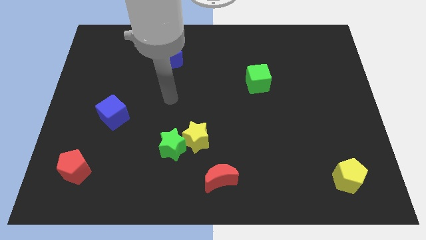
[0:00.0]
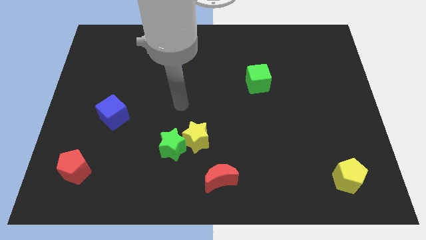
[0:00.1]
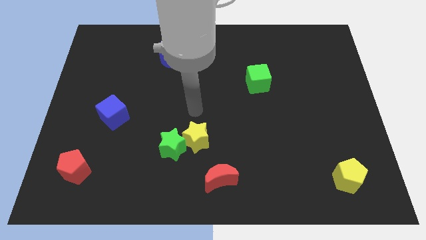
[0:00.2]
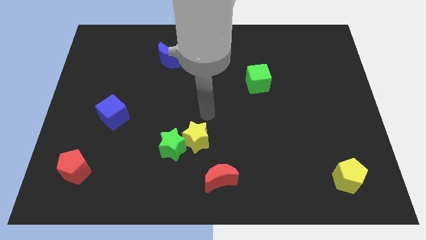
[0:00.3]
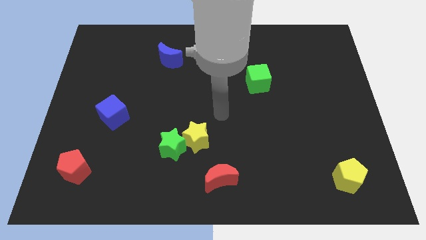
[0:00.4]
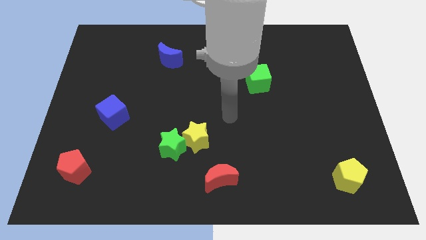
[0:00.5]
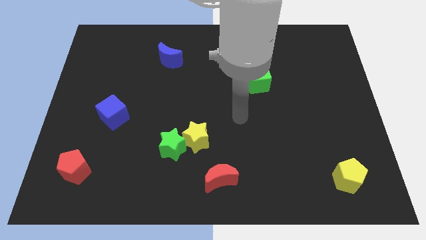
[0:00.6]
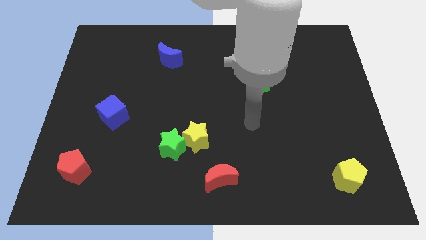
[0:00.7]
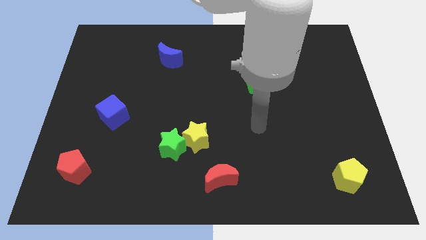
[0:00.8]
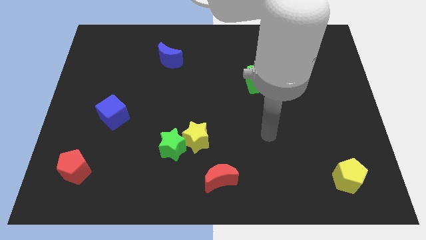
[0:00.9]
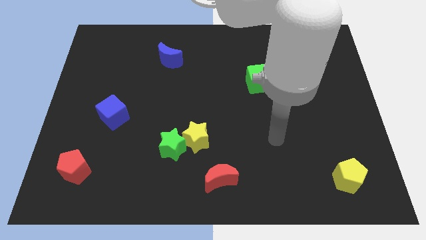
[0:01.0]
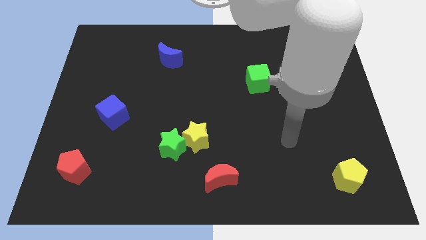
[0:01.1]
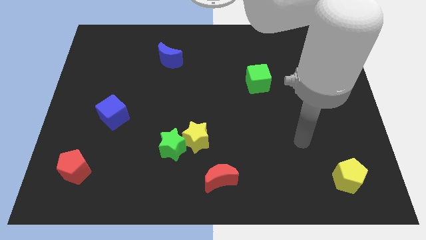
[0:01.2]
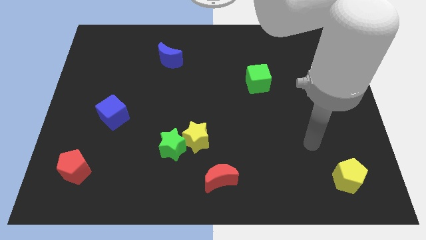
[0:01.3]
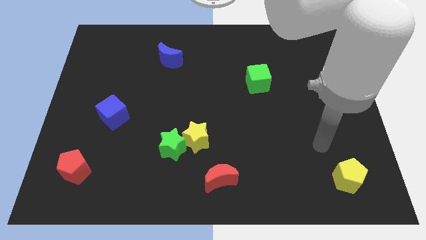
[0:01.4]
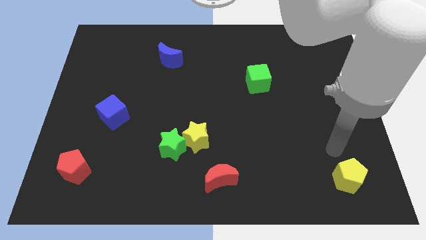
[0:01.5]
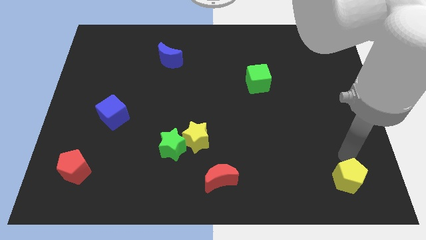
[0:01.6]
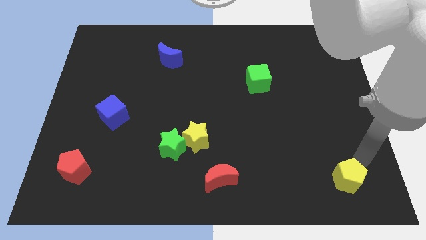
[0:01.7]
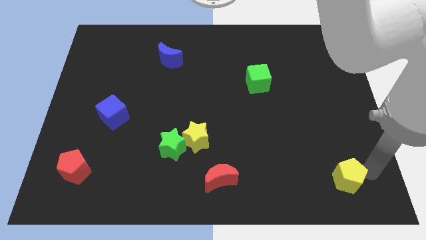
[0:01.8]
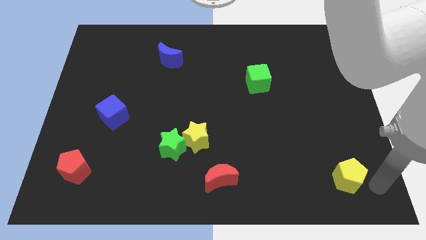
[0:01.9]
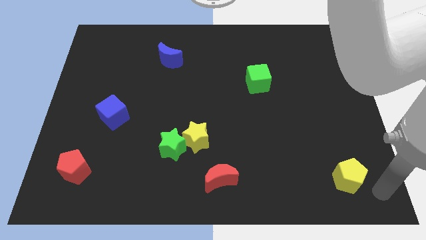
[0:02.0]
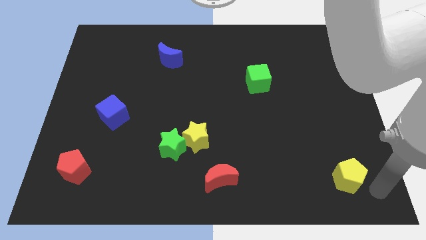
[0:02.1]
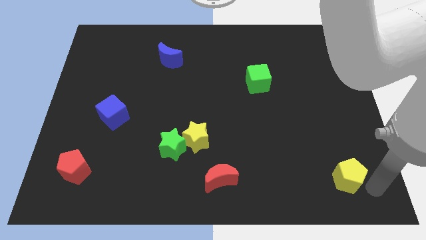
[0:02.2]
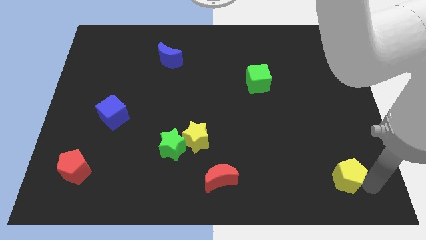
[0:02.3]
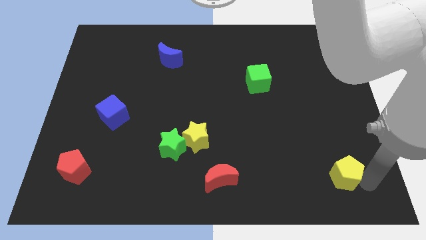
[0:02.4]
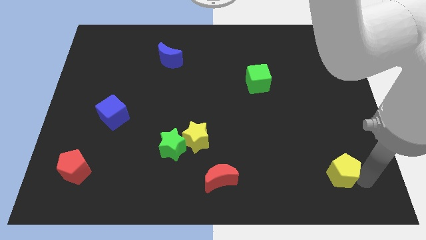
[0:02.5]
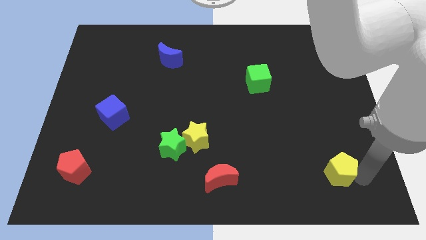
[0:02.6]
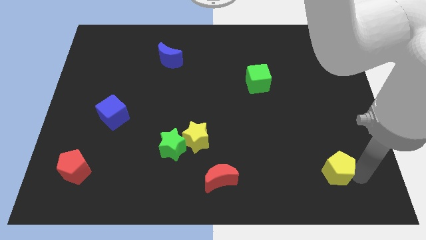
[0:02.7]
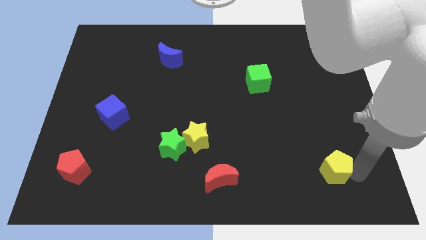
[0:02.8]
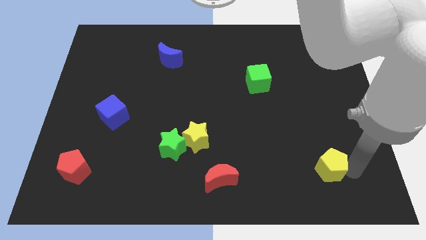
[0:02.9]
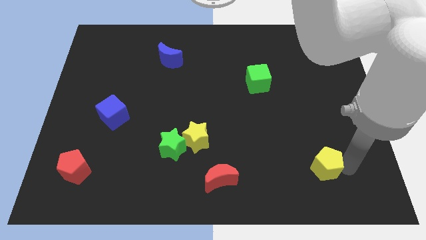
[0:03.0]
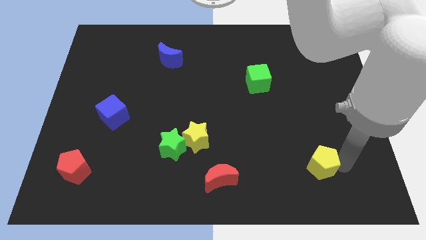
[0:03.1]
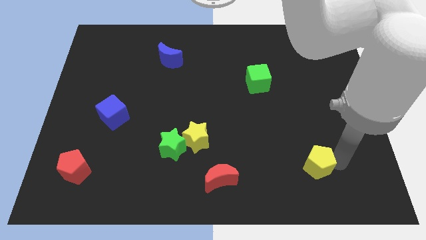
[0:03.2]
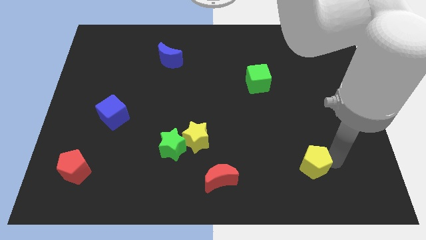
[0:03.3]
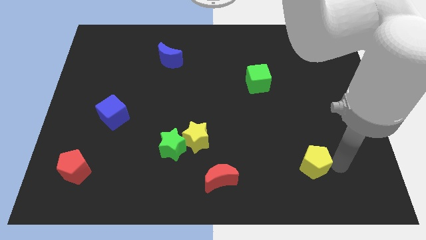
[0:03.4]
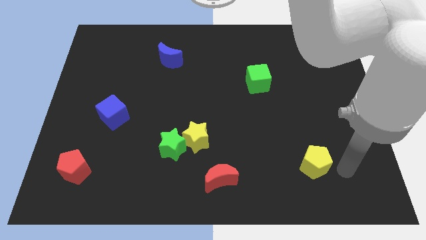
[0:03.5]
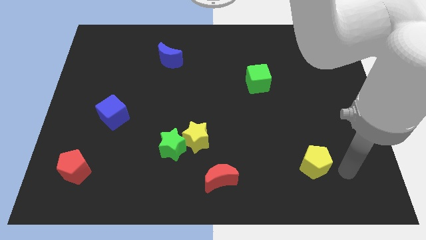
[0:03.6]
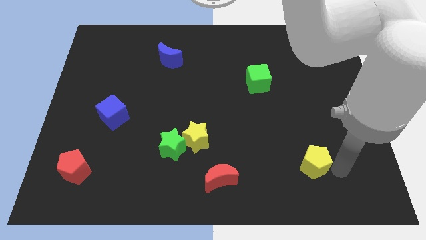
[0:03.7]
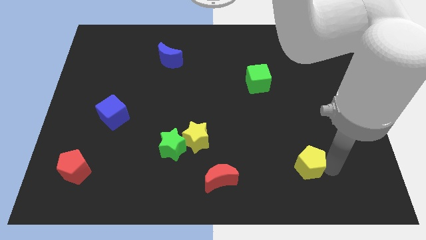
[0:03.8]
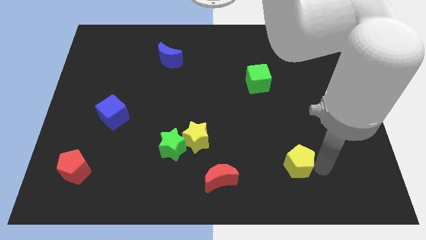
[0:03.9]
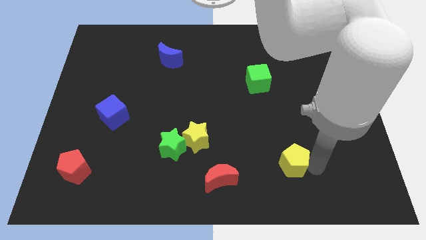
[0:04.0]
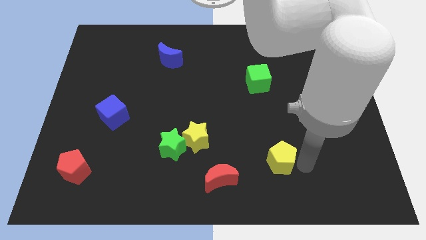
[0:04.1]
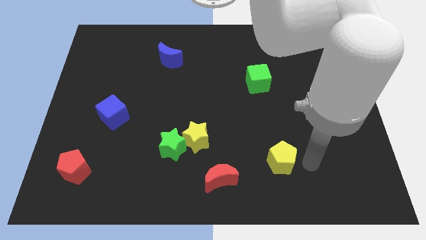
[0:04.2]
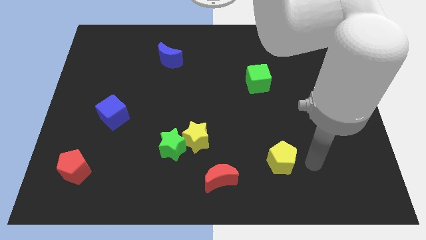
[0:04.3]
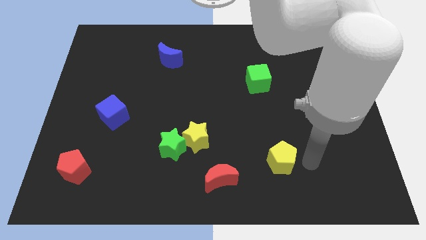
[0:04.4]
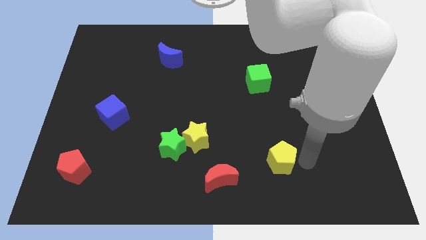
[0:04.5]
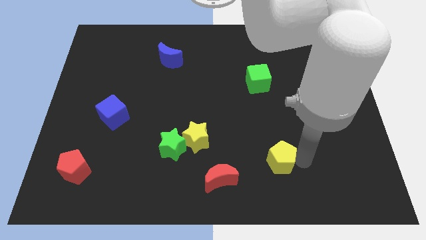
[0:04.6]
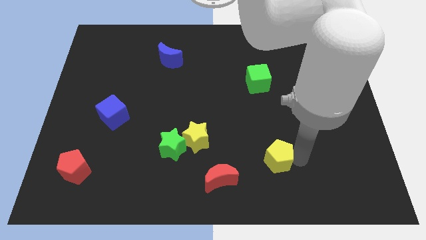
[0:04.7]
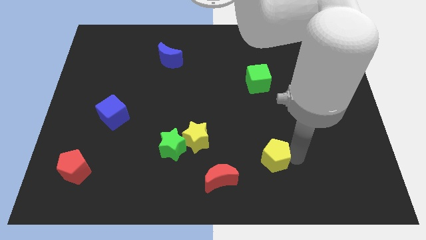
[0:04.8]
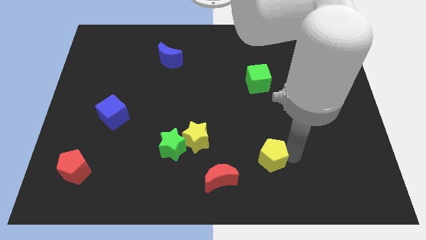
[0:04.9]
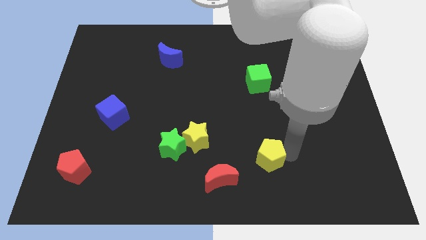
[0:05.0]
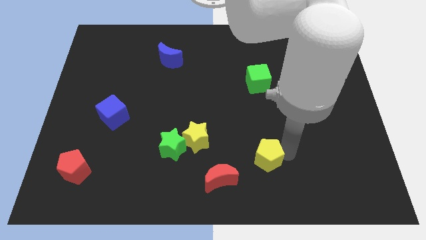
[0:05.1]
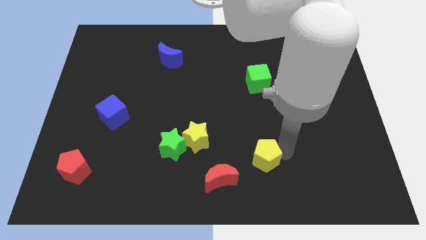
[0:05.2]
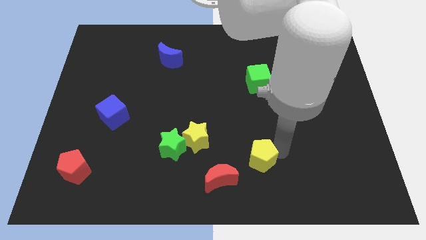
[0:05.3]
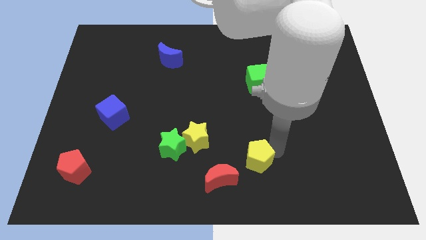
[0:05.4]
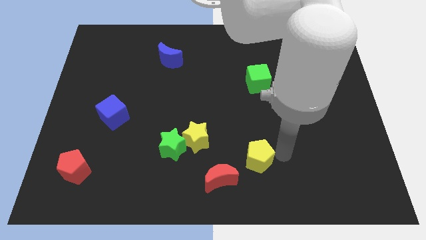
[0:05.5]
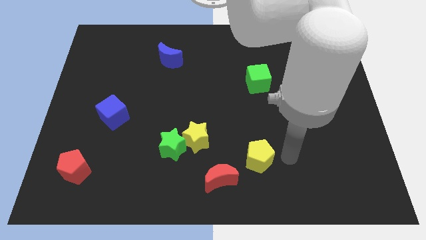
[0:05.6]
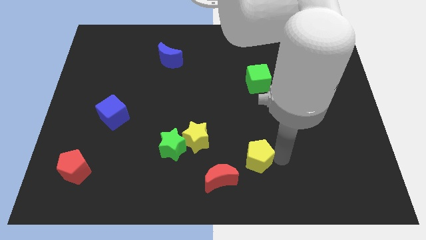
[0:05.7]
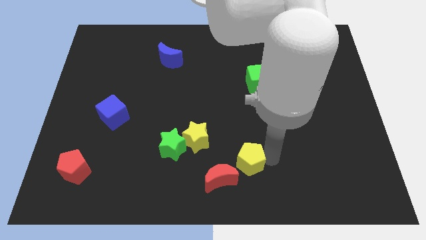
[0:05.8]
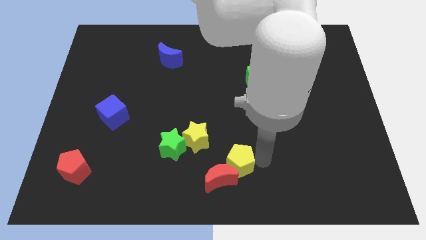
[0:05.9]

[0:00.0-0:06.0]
move the yellow pentagon diagonally down and to the right of the yellow star

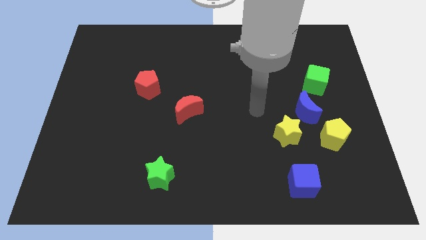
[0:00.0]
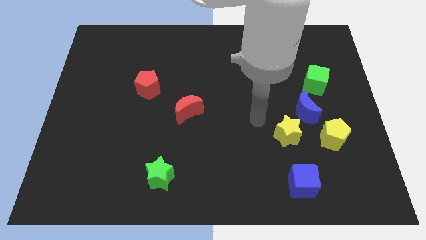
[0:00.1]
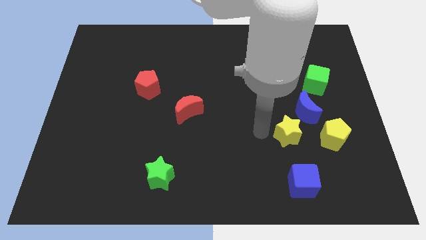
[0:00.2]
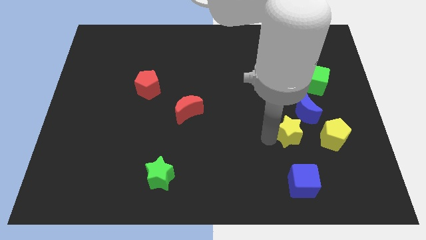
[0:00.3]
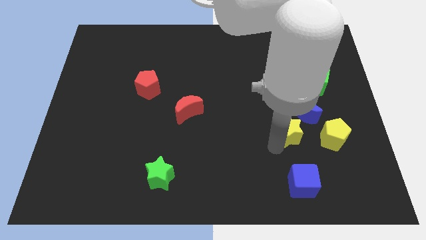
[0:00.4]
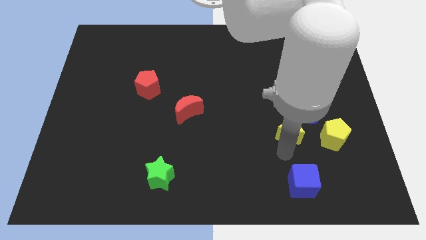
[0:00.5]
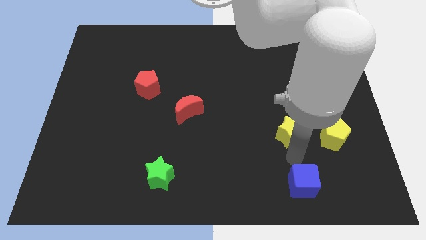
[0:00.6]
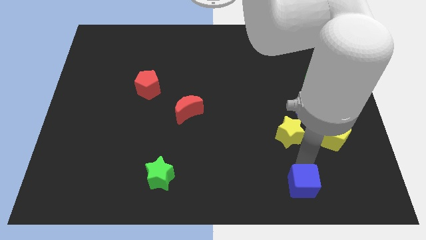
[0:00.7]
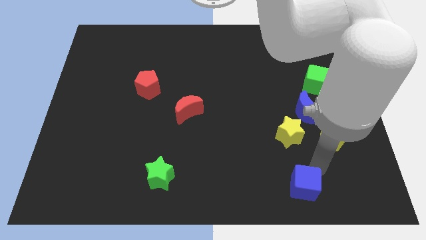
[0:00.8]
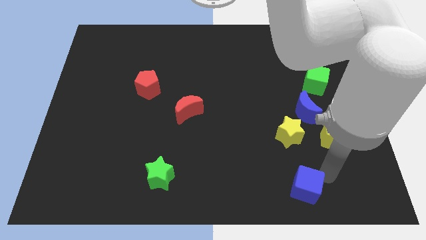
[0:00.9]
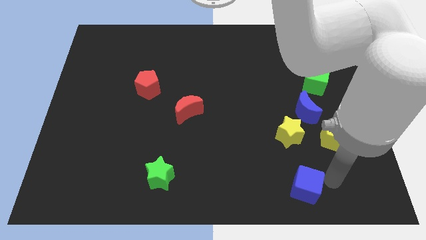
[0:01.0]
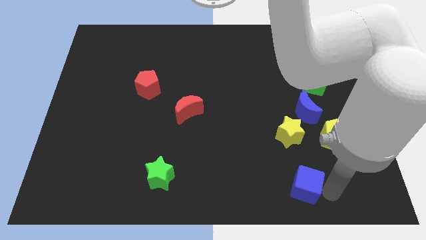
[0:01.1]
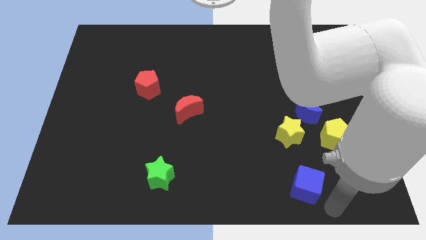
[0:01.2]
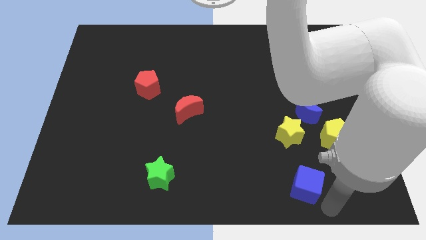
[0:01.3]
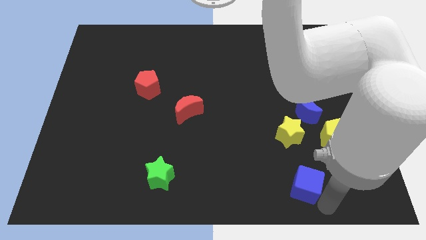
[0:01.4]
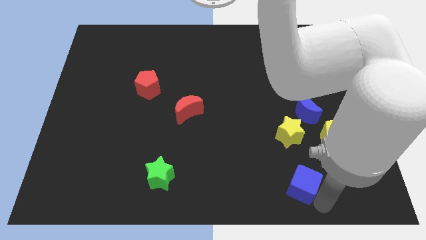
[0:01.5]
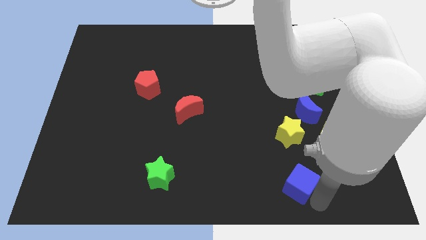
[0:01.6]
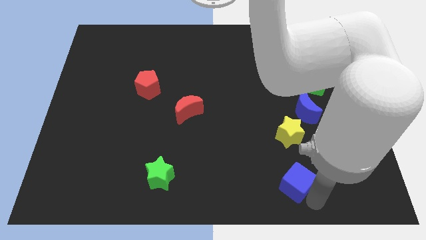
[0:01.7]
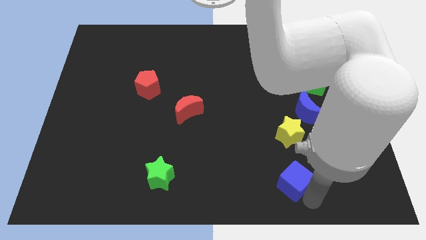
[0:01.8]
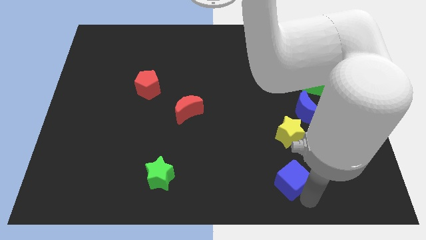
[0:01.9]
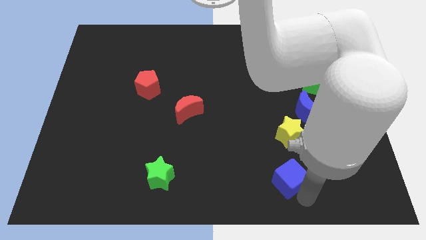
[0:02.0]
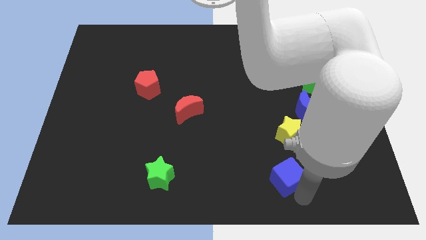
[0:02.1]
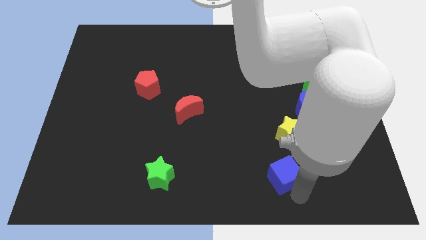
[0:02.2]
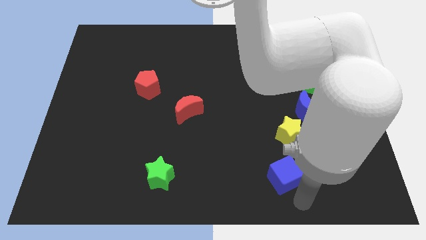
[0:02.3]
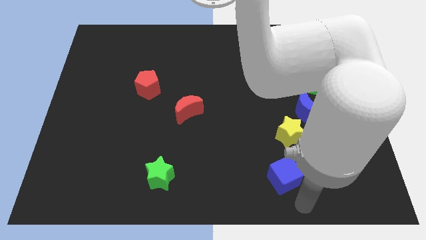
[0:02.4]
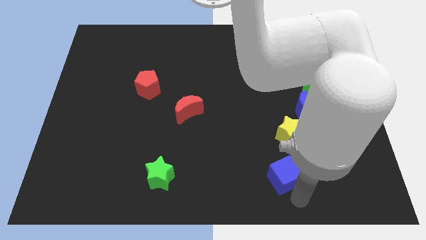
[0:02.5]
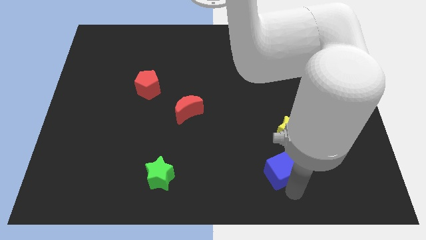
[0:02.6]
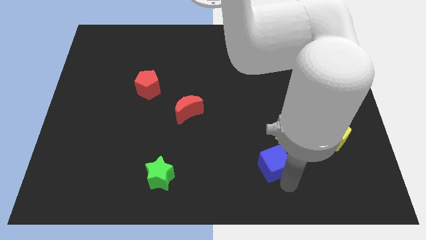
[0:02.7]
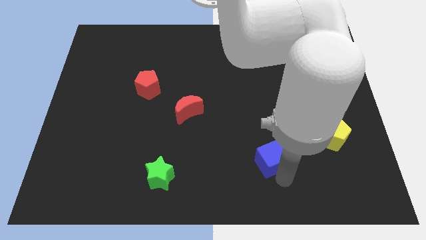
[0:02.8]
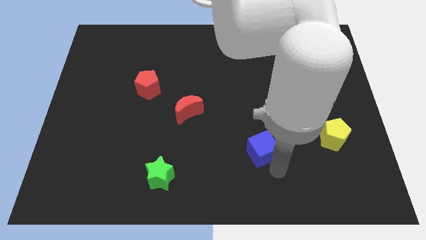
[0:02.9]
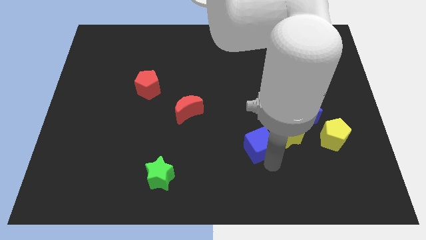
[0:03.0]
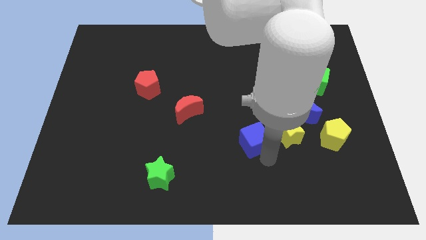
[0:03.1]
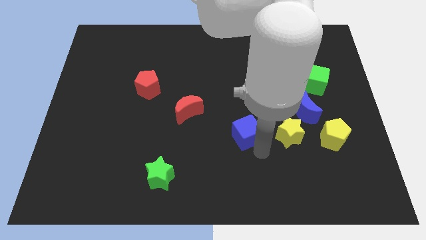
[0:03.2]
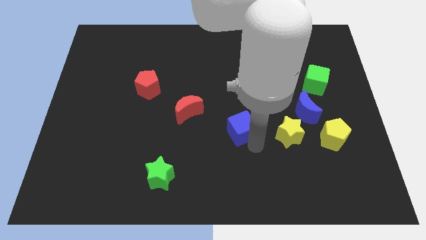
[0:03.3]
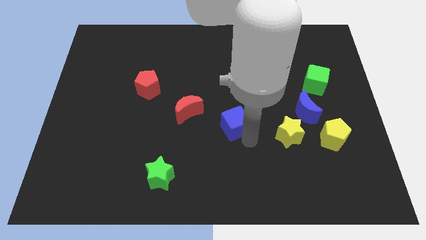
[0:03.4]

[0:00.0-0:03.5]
push the blue cube just right of the red moon
